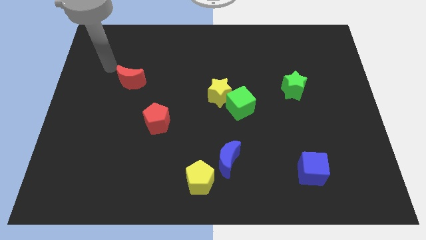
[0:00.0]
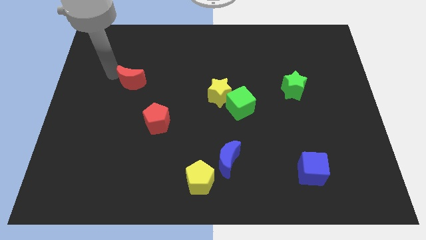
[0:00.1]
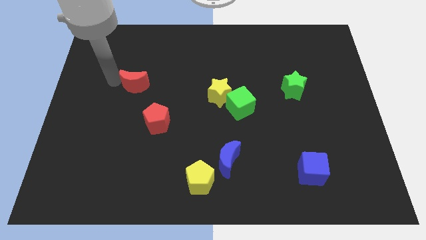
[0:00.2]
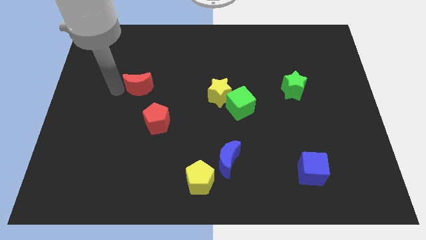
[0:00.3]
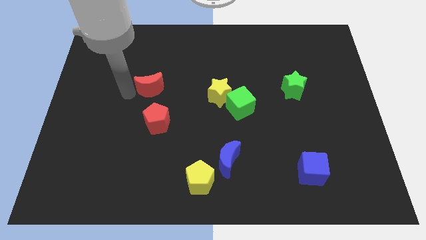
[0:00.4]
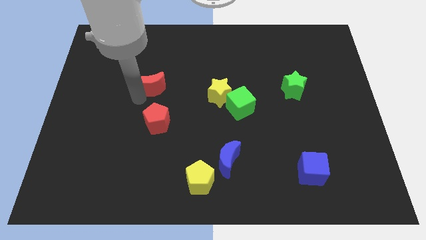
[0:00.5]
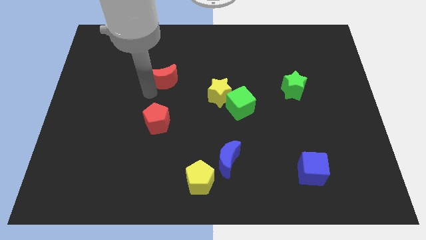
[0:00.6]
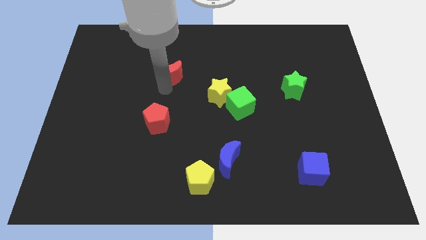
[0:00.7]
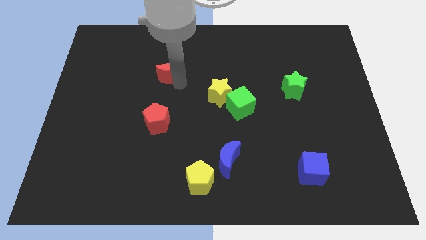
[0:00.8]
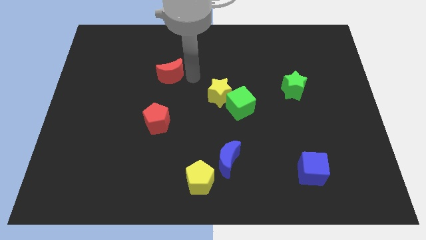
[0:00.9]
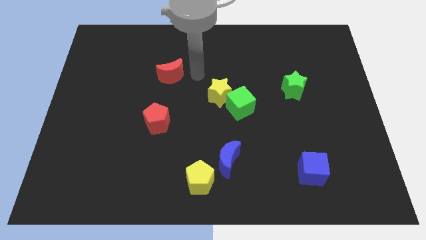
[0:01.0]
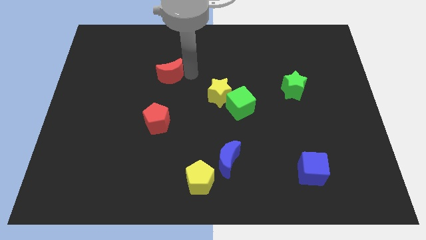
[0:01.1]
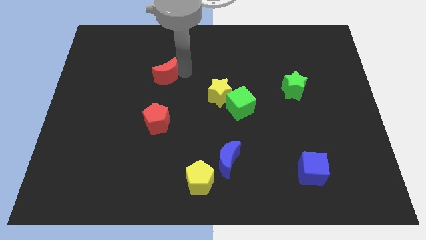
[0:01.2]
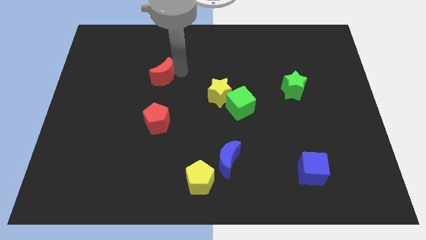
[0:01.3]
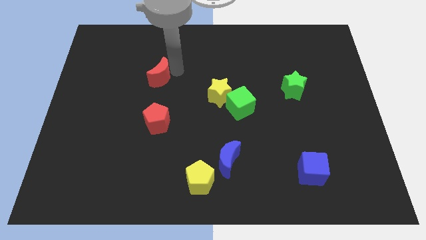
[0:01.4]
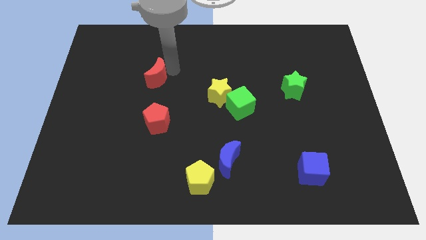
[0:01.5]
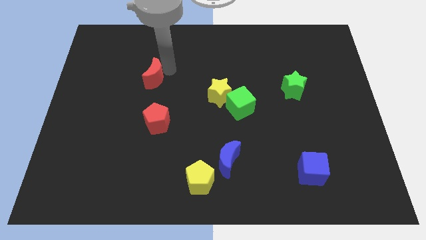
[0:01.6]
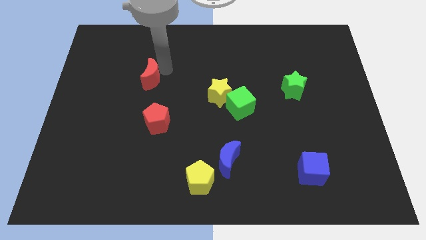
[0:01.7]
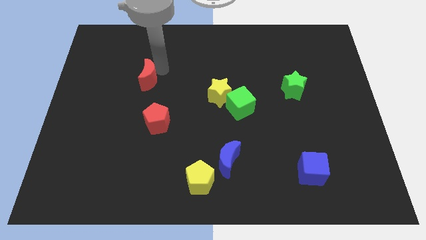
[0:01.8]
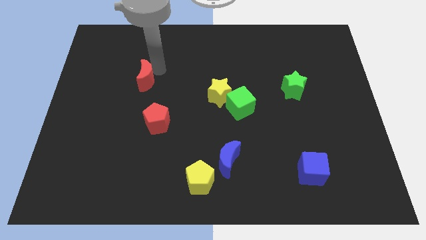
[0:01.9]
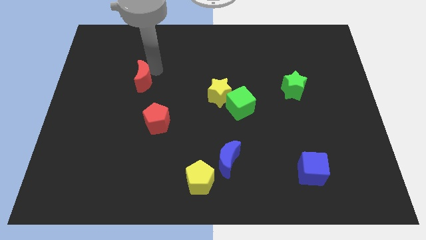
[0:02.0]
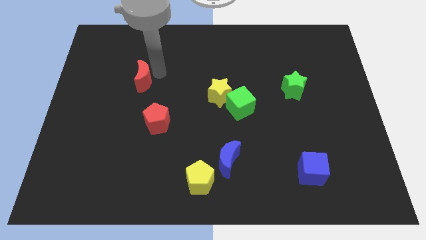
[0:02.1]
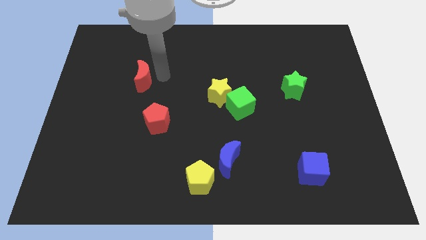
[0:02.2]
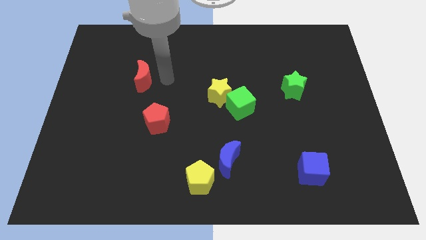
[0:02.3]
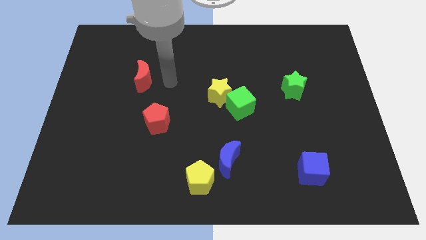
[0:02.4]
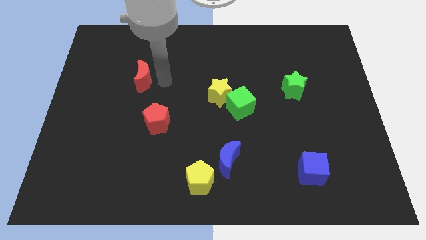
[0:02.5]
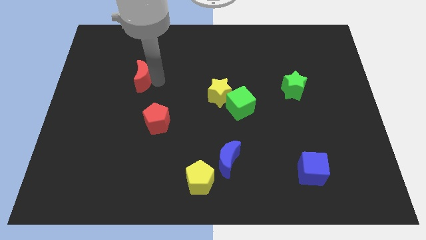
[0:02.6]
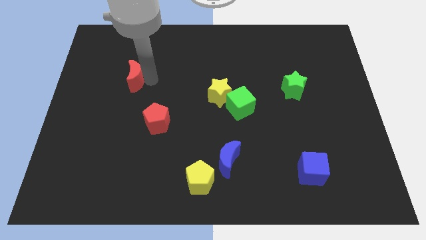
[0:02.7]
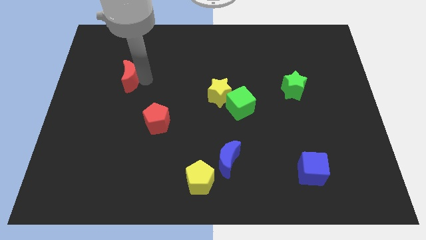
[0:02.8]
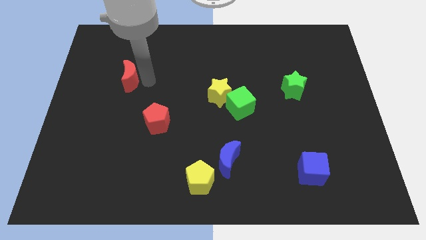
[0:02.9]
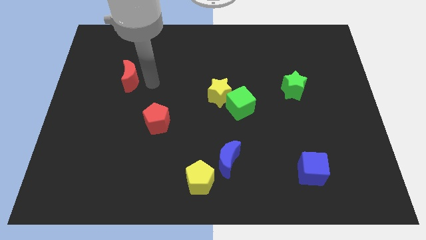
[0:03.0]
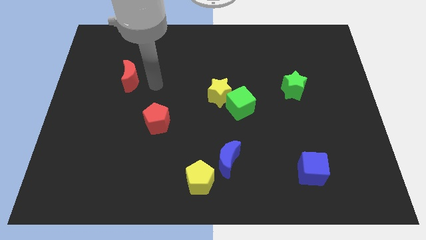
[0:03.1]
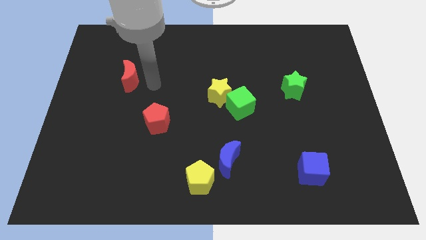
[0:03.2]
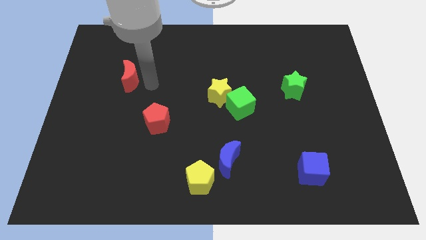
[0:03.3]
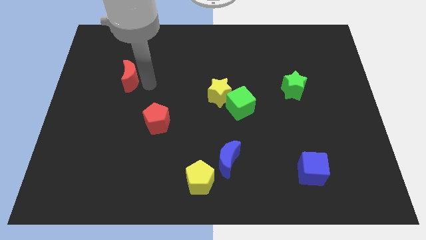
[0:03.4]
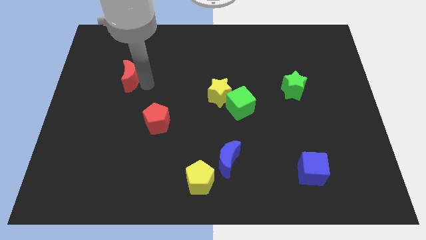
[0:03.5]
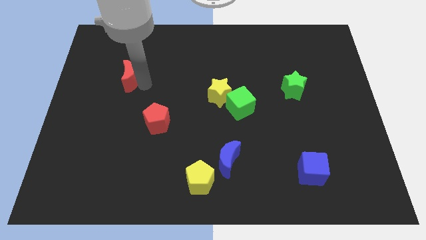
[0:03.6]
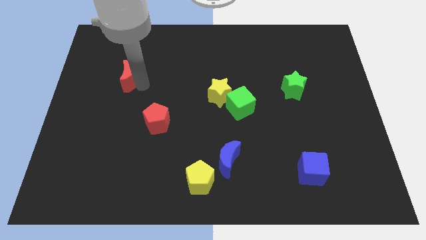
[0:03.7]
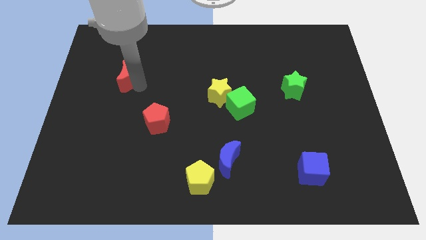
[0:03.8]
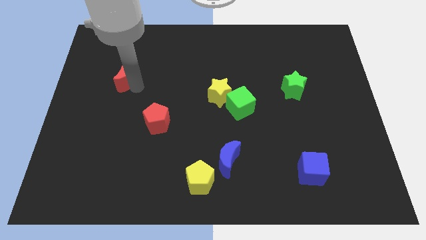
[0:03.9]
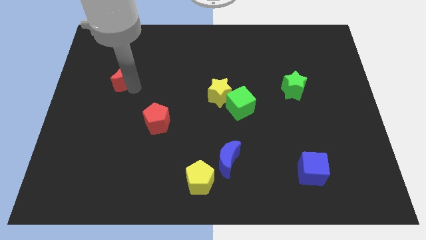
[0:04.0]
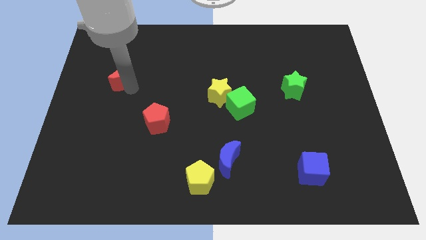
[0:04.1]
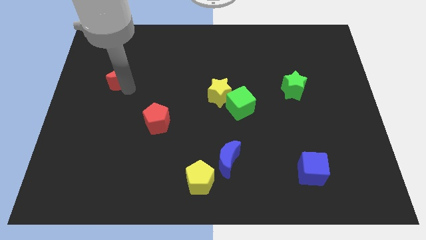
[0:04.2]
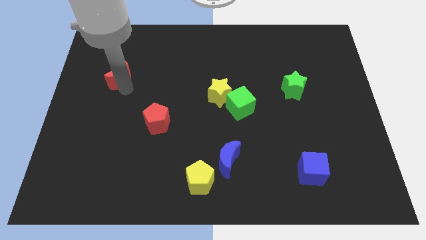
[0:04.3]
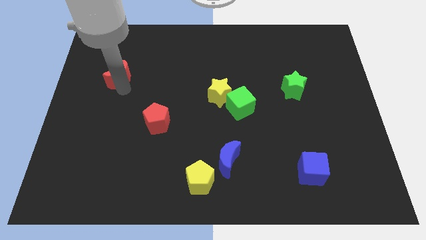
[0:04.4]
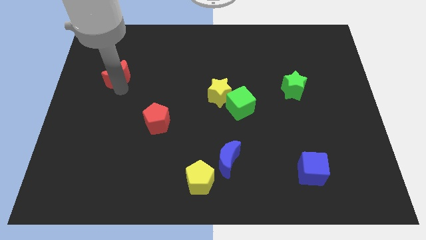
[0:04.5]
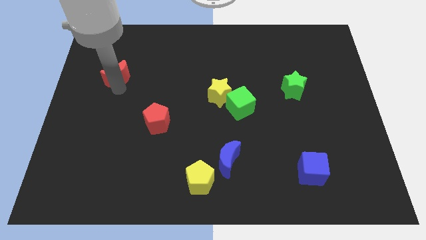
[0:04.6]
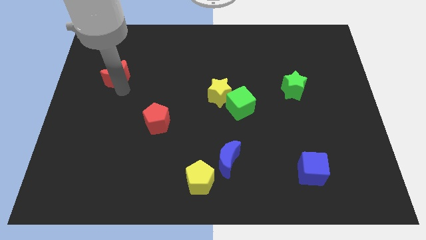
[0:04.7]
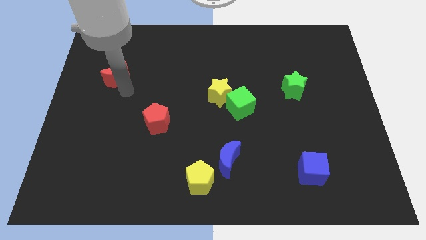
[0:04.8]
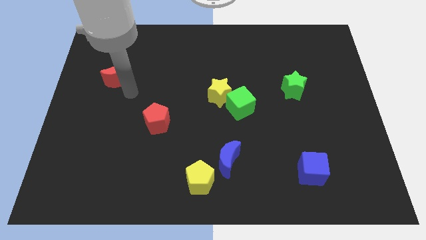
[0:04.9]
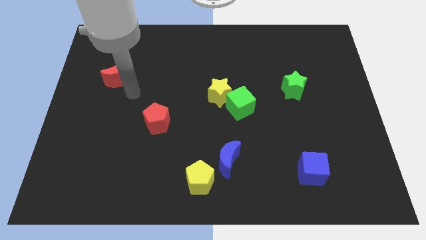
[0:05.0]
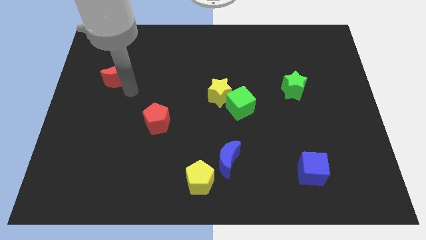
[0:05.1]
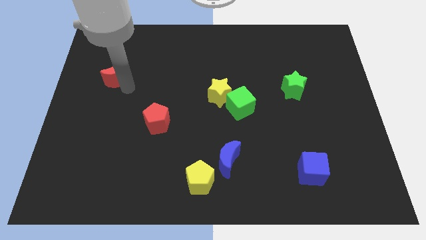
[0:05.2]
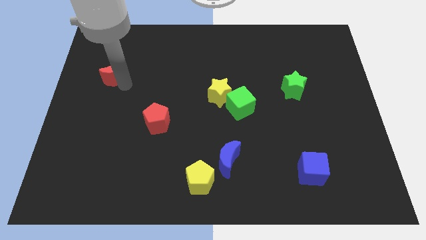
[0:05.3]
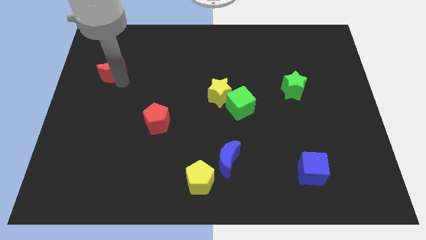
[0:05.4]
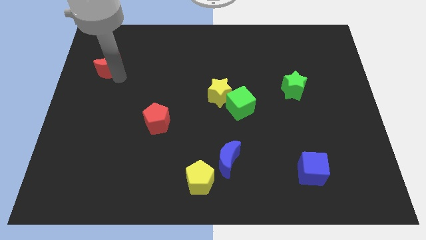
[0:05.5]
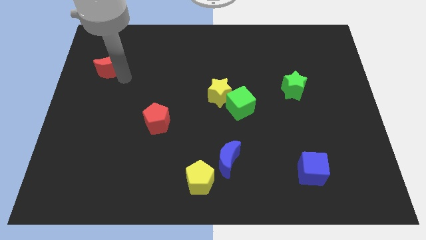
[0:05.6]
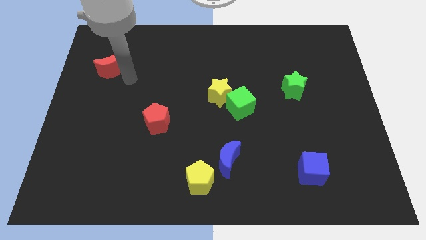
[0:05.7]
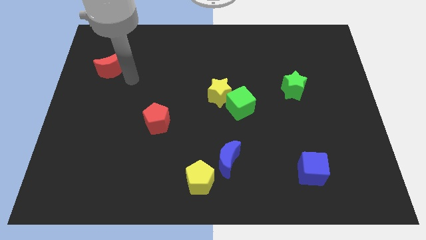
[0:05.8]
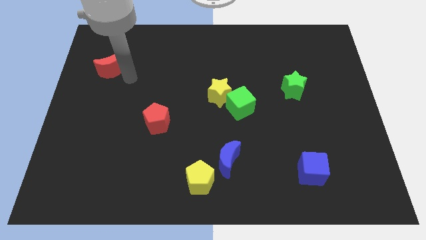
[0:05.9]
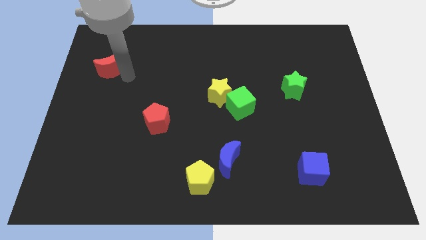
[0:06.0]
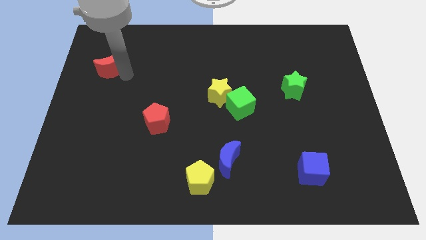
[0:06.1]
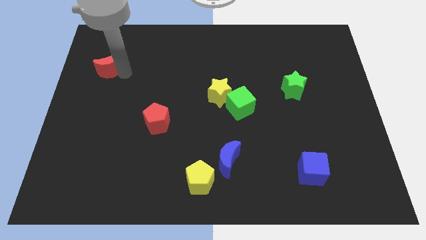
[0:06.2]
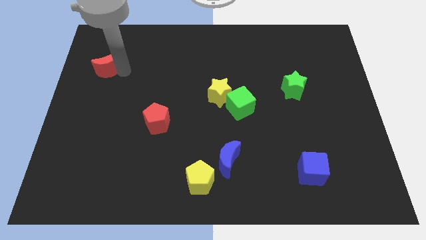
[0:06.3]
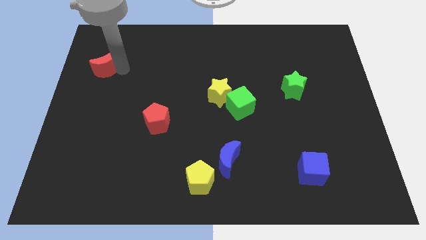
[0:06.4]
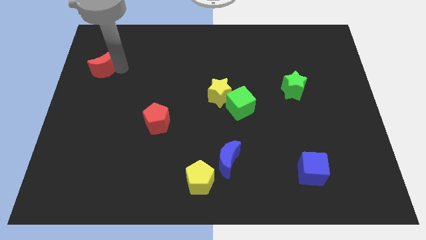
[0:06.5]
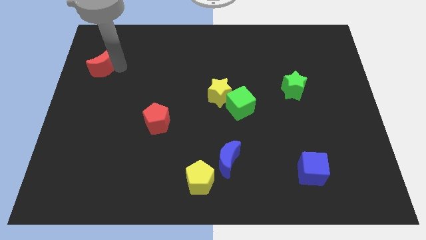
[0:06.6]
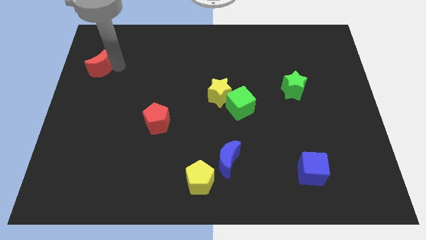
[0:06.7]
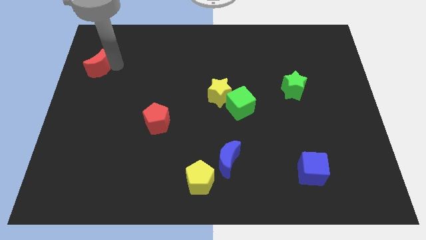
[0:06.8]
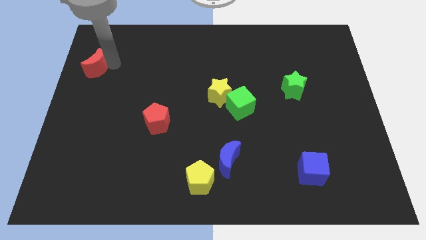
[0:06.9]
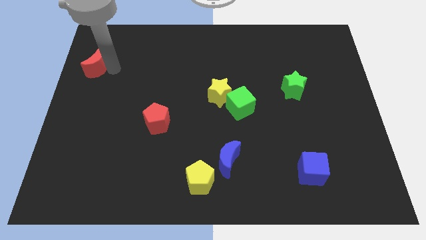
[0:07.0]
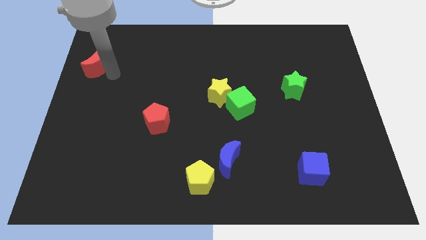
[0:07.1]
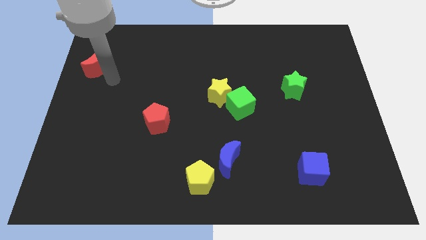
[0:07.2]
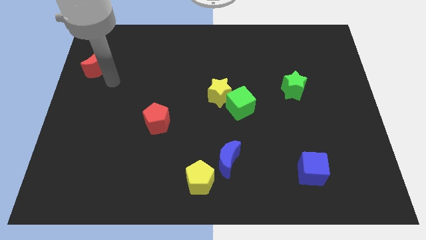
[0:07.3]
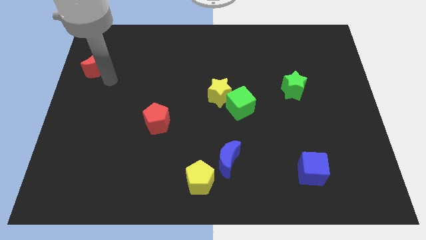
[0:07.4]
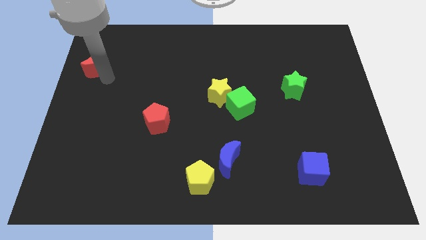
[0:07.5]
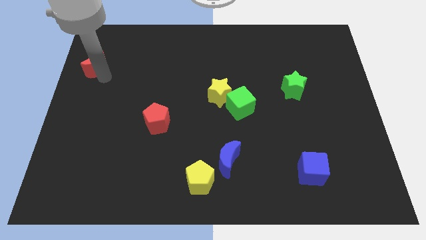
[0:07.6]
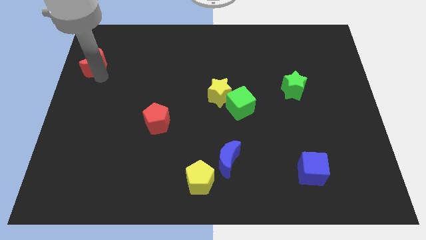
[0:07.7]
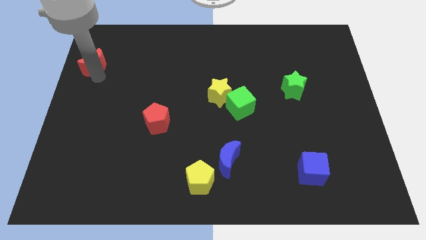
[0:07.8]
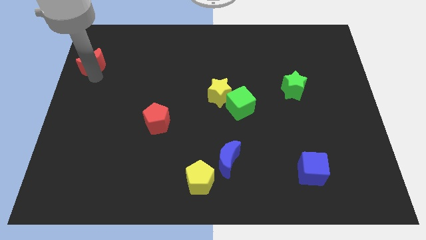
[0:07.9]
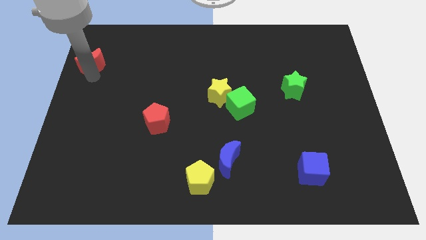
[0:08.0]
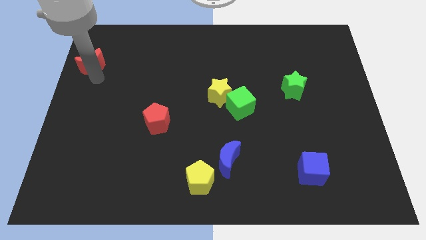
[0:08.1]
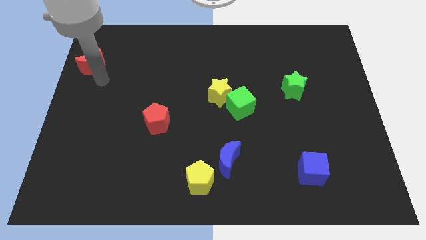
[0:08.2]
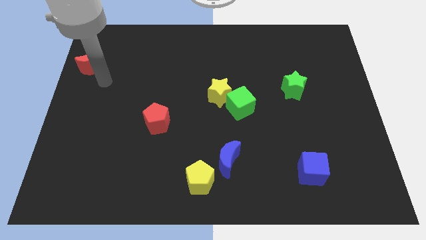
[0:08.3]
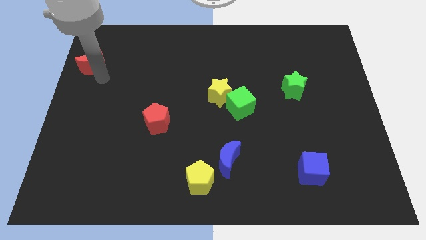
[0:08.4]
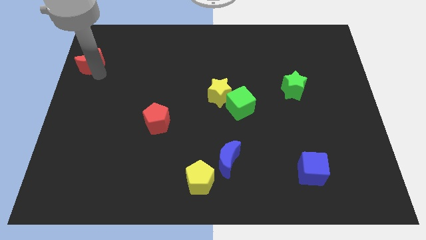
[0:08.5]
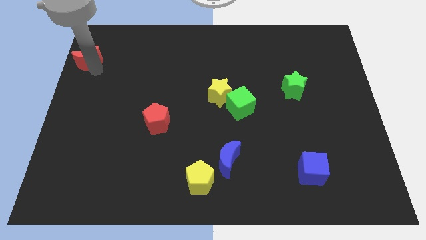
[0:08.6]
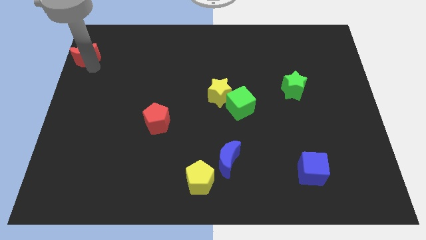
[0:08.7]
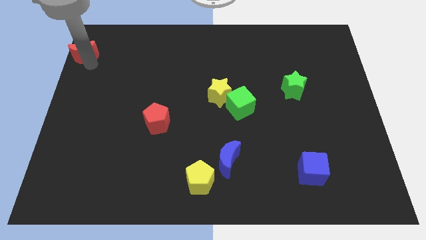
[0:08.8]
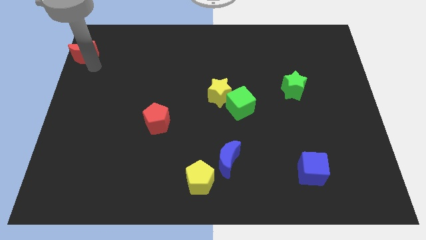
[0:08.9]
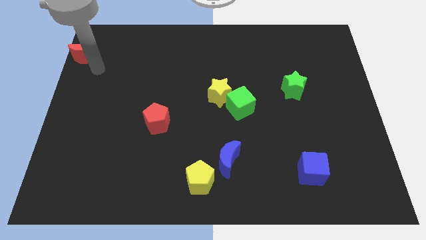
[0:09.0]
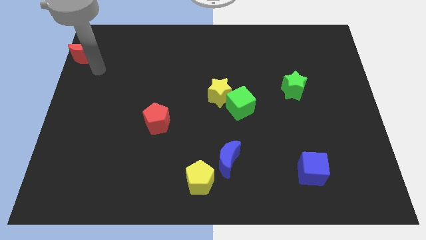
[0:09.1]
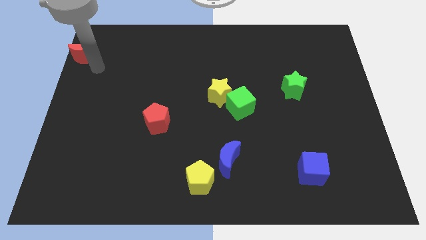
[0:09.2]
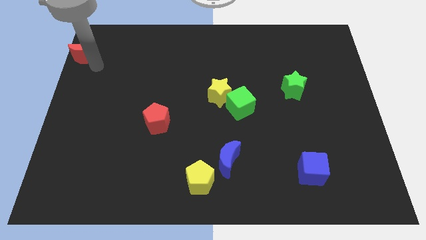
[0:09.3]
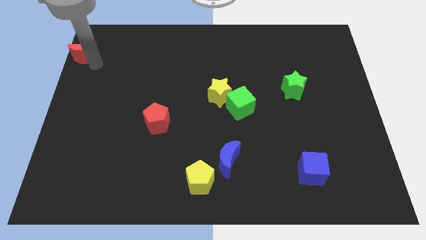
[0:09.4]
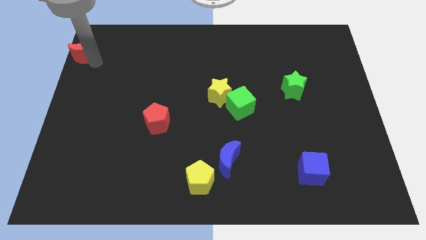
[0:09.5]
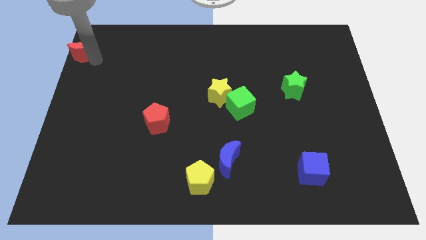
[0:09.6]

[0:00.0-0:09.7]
push the red moon to the top left
